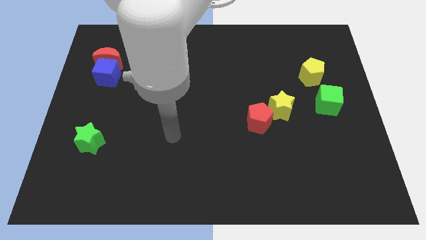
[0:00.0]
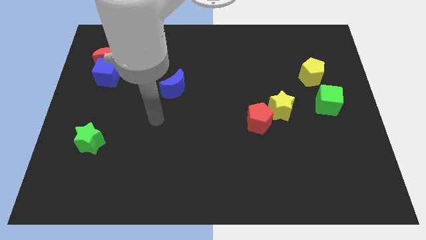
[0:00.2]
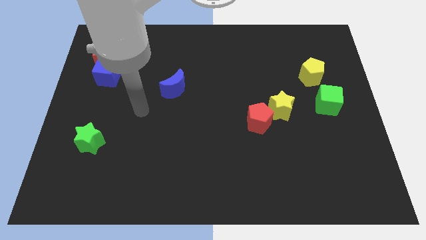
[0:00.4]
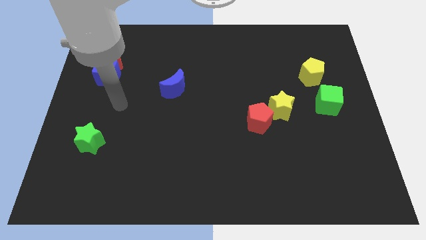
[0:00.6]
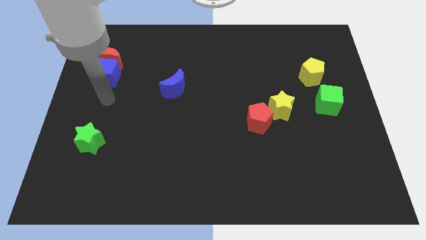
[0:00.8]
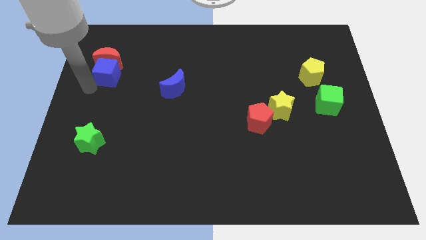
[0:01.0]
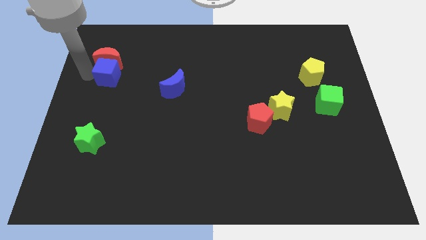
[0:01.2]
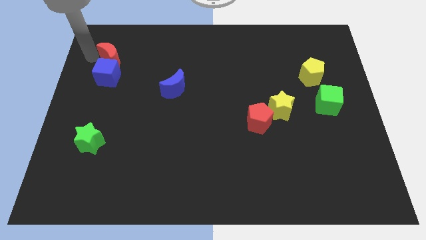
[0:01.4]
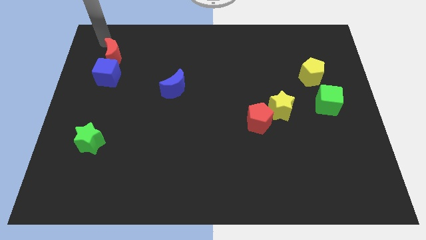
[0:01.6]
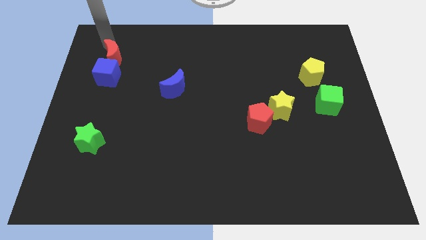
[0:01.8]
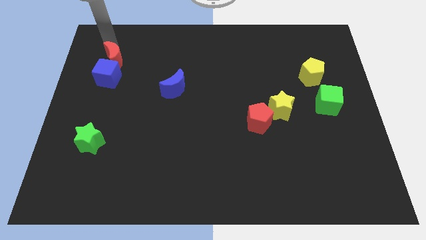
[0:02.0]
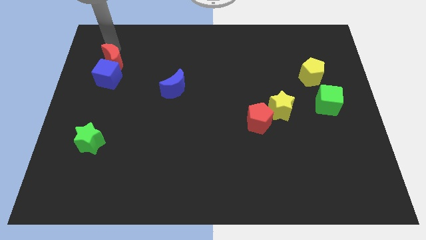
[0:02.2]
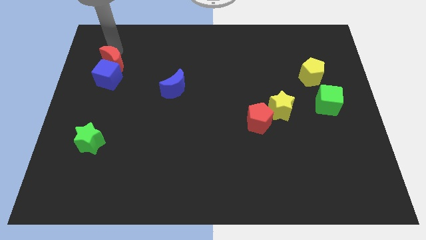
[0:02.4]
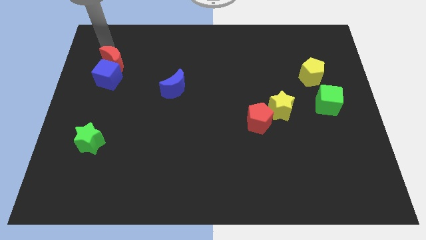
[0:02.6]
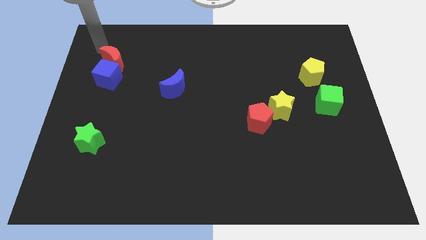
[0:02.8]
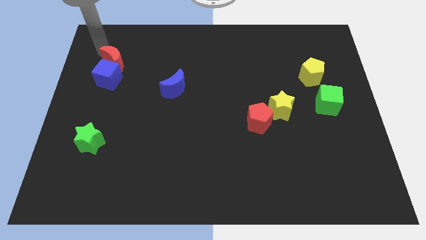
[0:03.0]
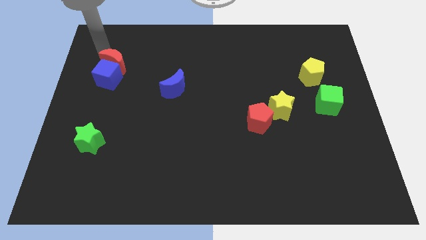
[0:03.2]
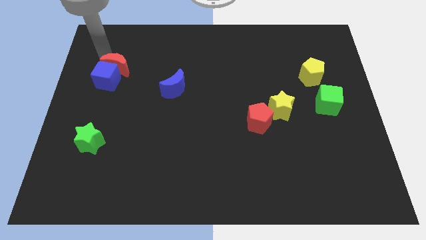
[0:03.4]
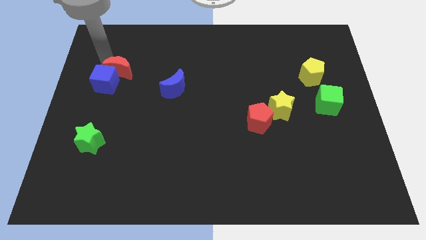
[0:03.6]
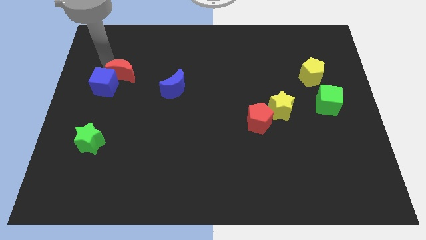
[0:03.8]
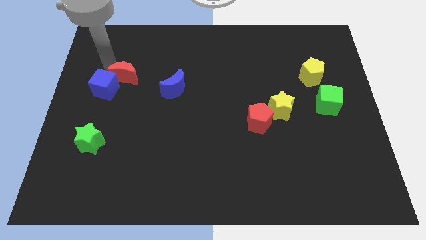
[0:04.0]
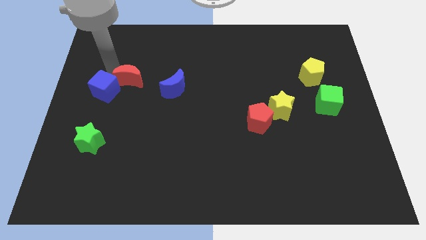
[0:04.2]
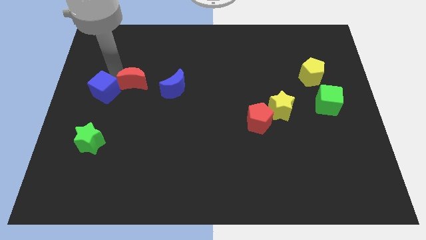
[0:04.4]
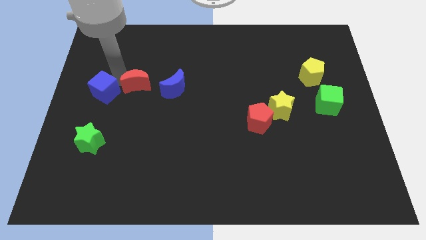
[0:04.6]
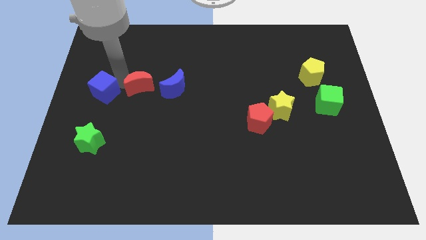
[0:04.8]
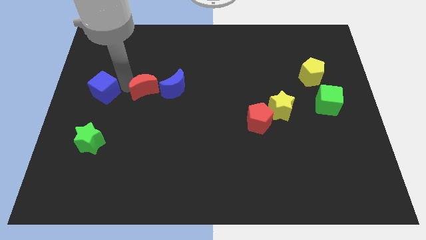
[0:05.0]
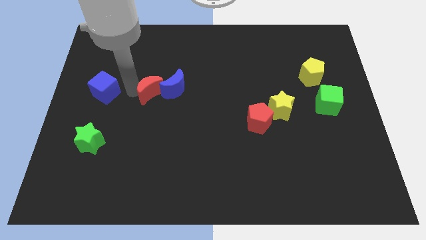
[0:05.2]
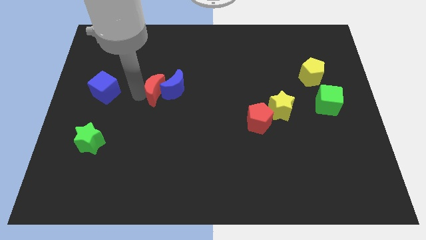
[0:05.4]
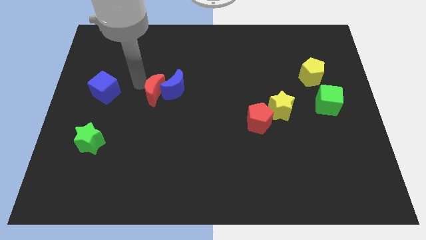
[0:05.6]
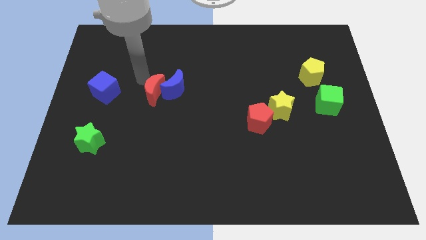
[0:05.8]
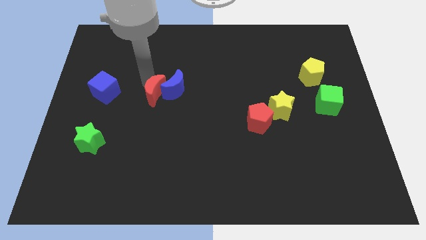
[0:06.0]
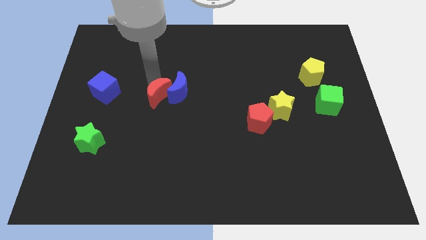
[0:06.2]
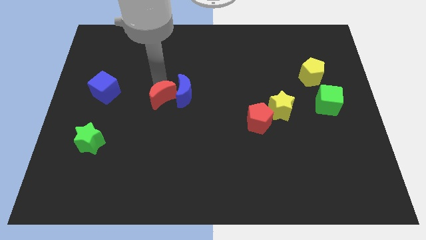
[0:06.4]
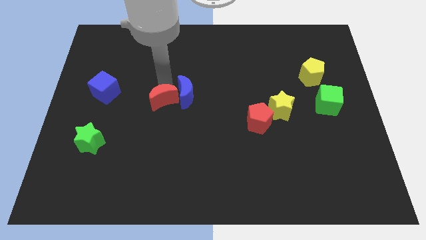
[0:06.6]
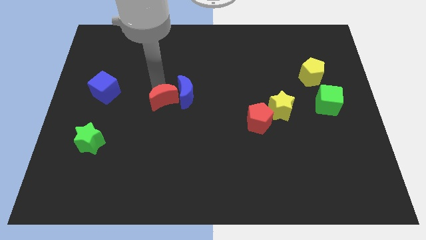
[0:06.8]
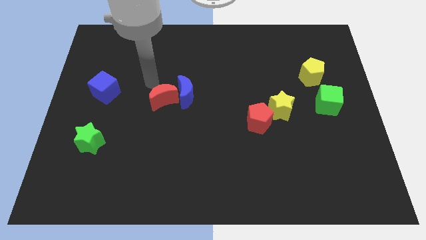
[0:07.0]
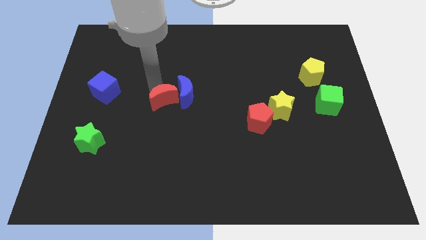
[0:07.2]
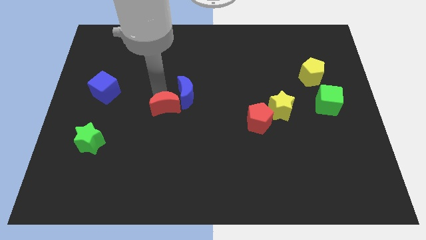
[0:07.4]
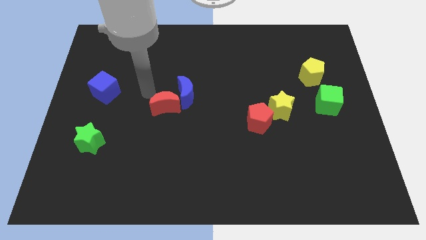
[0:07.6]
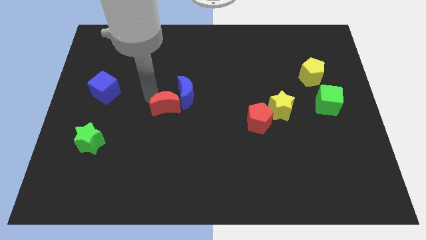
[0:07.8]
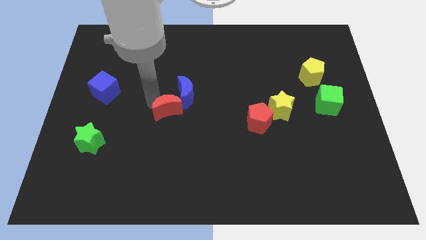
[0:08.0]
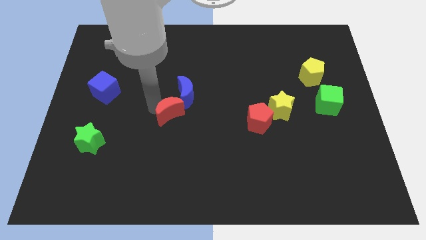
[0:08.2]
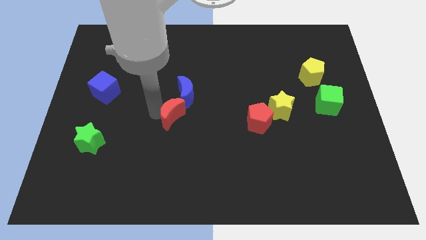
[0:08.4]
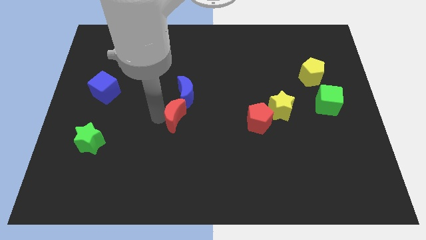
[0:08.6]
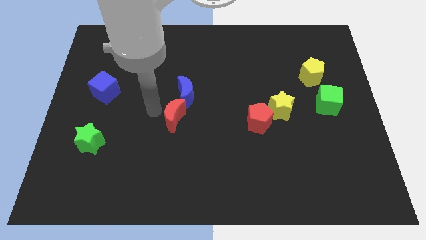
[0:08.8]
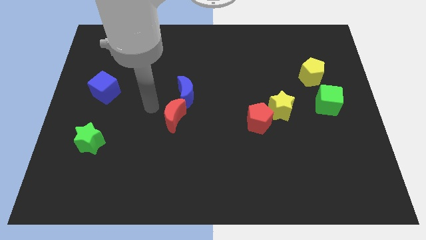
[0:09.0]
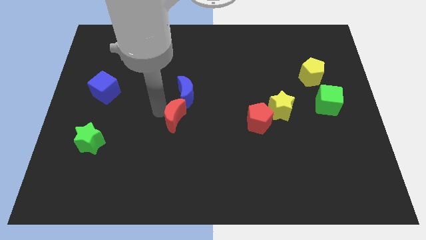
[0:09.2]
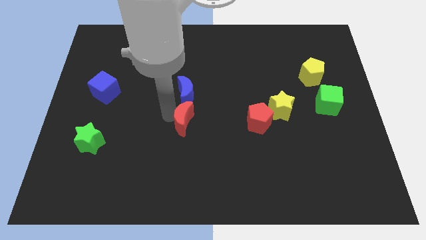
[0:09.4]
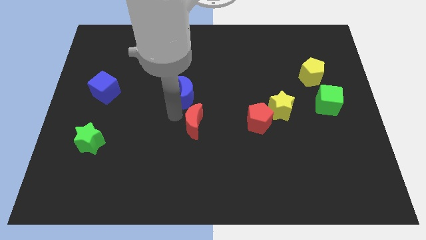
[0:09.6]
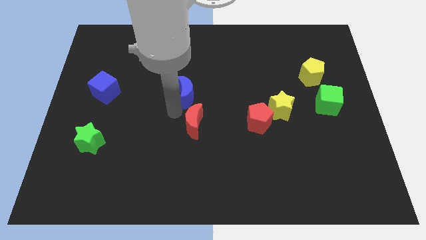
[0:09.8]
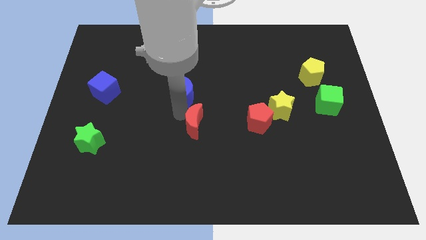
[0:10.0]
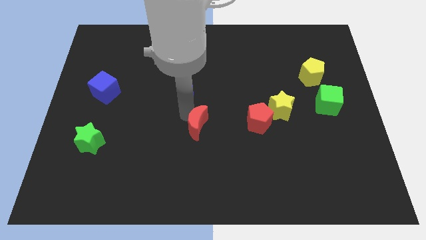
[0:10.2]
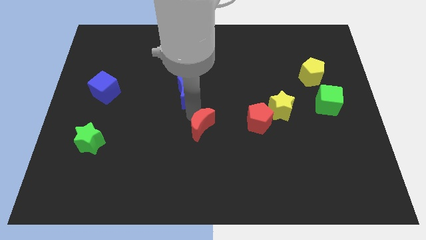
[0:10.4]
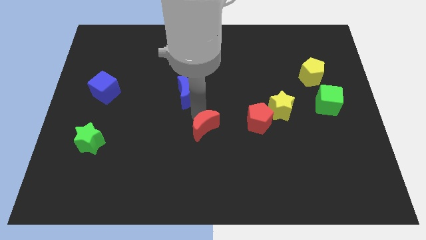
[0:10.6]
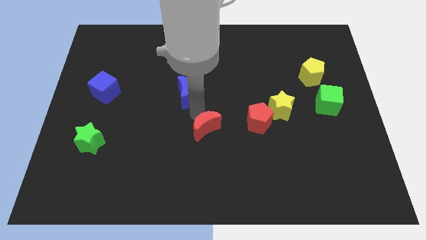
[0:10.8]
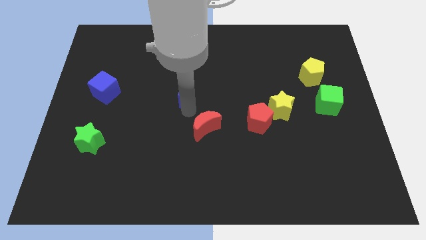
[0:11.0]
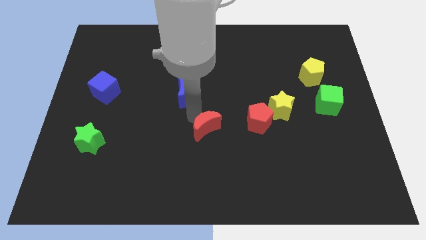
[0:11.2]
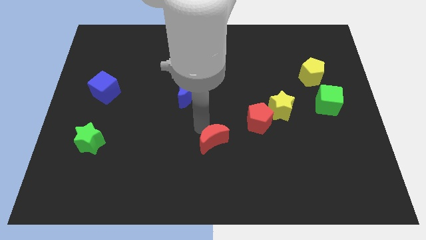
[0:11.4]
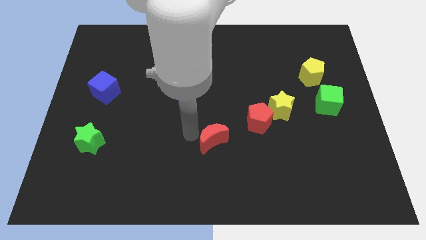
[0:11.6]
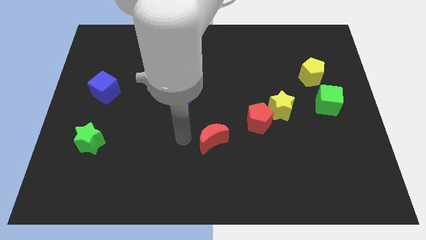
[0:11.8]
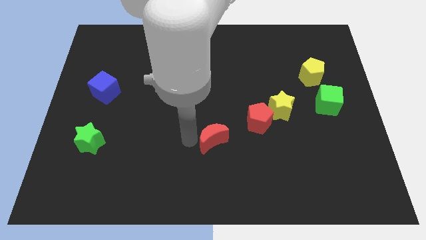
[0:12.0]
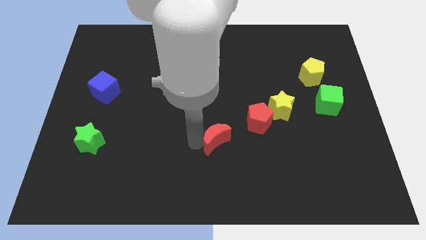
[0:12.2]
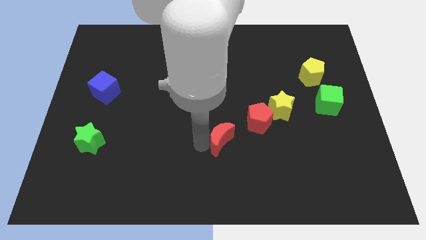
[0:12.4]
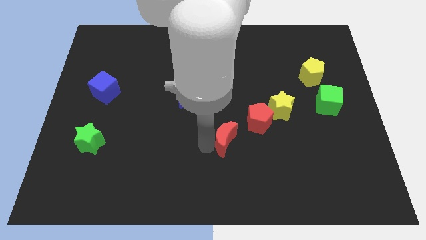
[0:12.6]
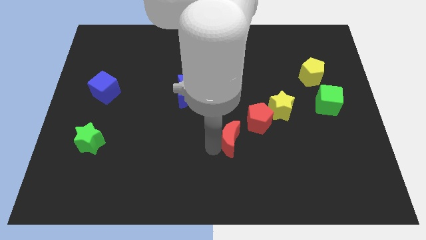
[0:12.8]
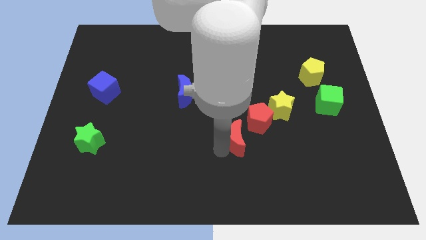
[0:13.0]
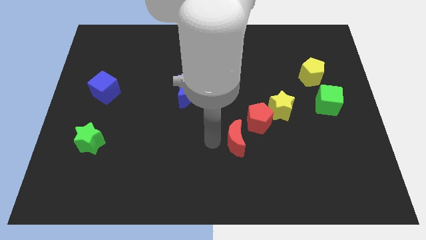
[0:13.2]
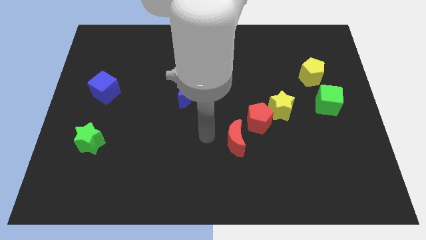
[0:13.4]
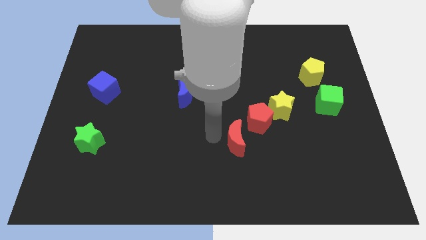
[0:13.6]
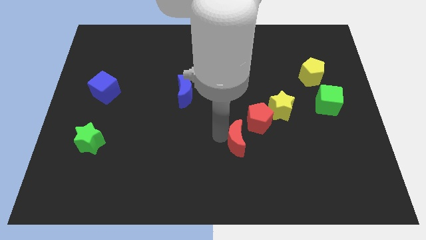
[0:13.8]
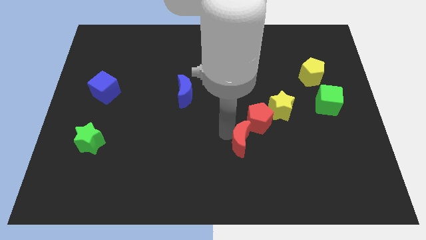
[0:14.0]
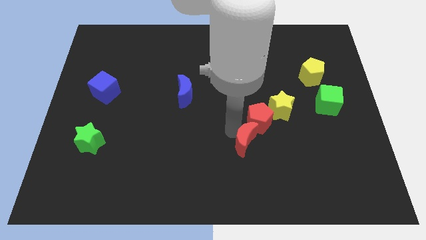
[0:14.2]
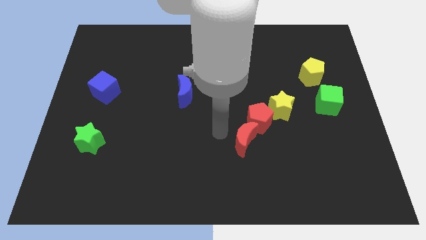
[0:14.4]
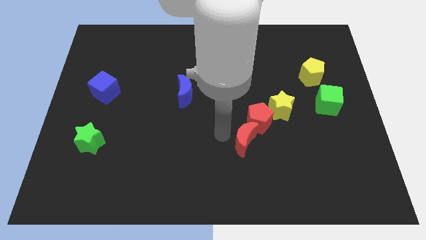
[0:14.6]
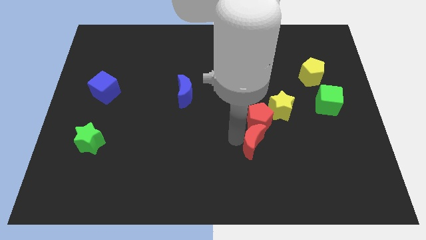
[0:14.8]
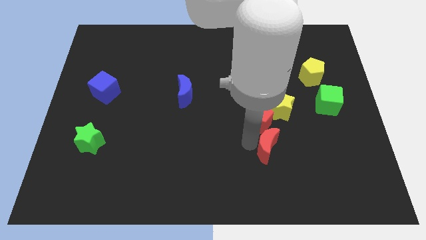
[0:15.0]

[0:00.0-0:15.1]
put the red moon to the bottom of the yellow star
